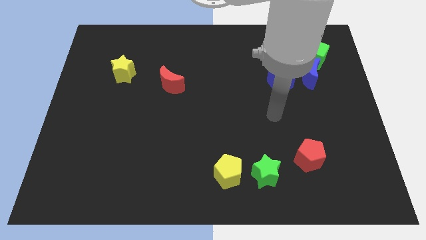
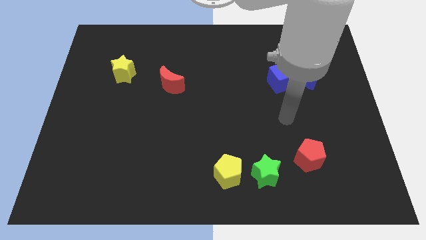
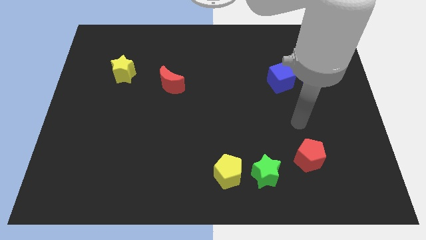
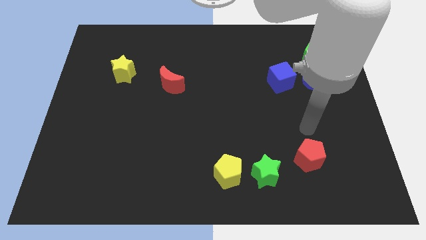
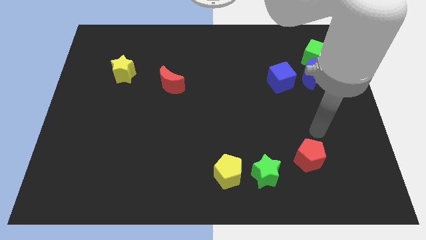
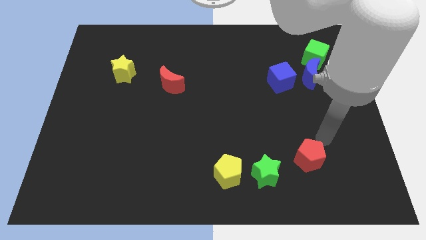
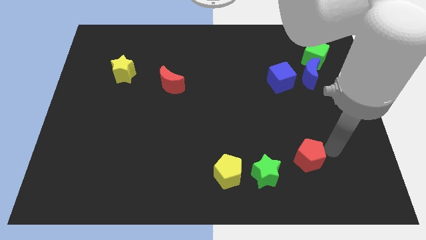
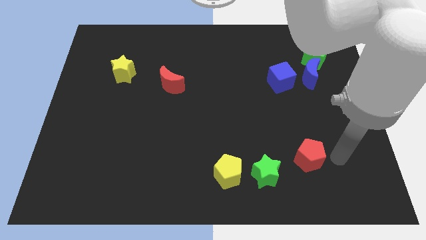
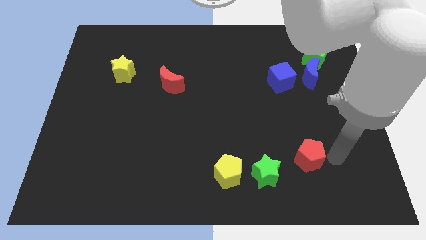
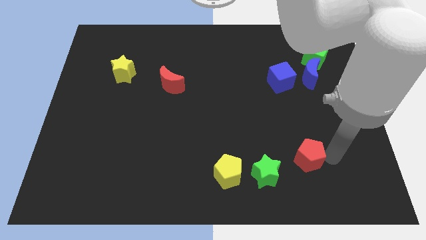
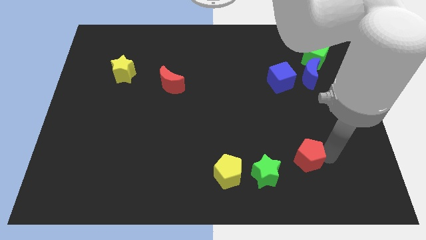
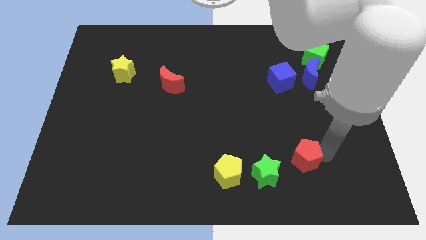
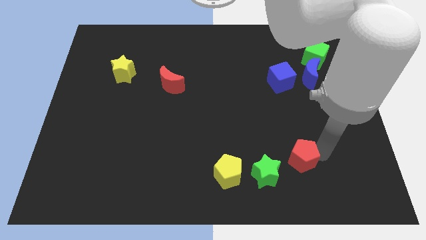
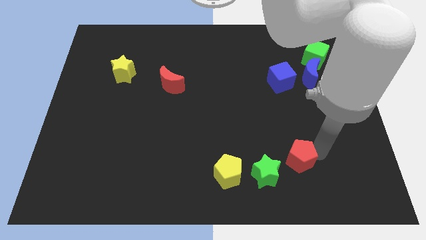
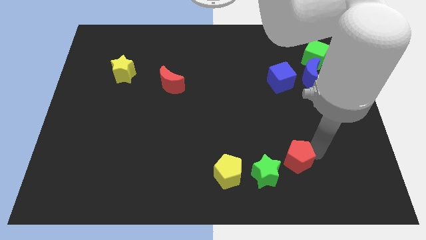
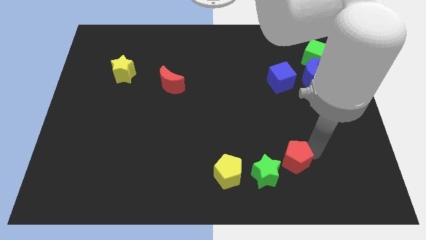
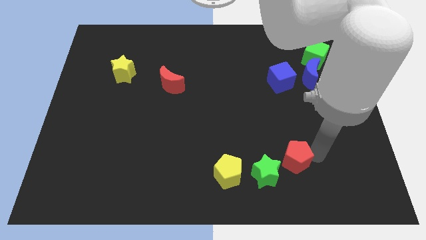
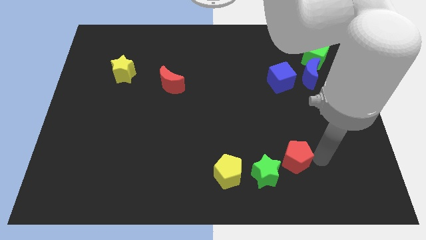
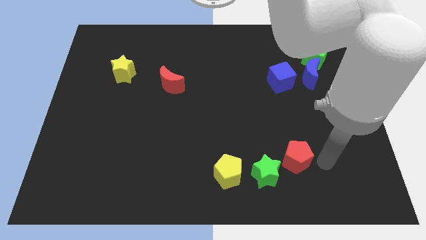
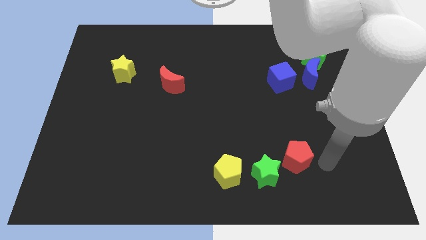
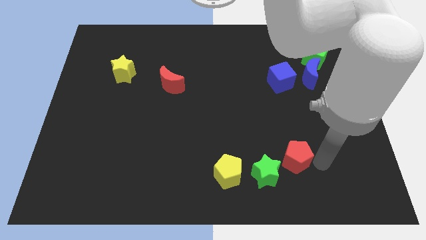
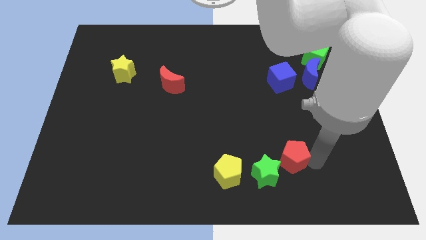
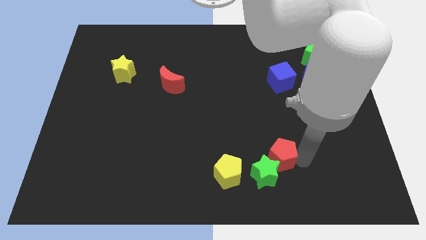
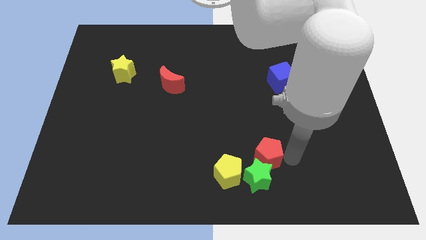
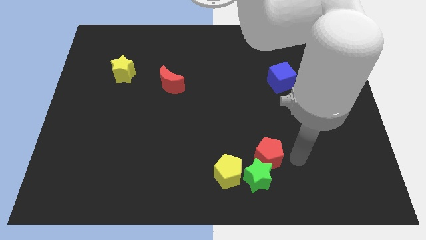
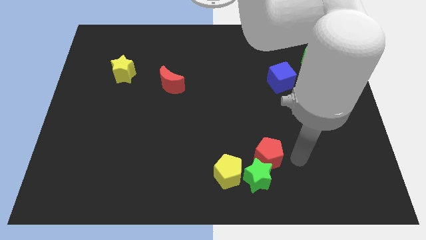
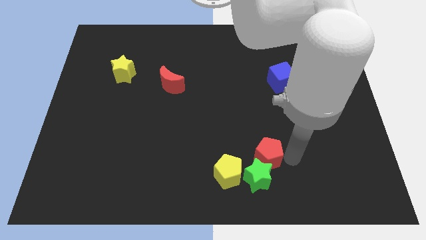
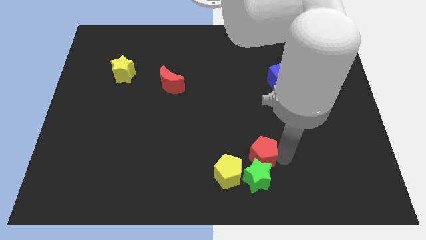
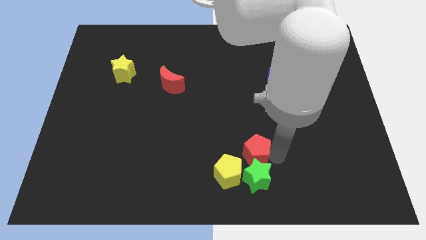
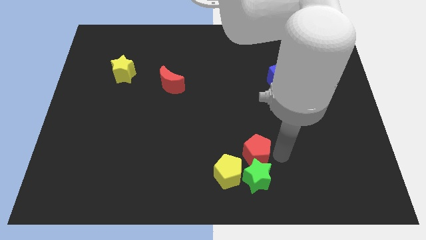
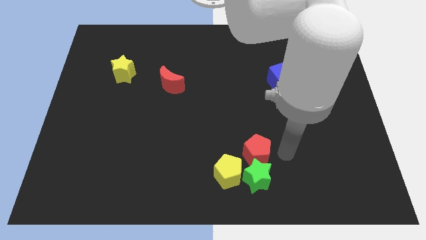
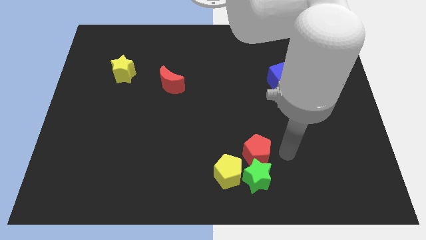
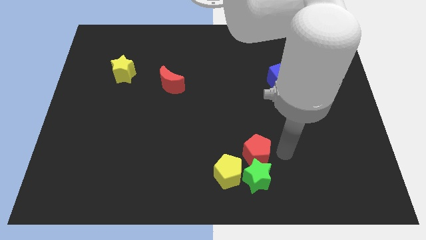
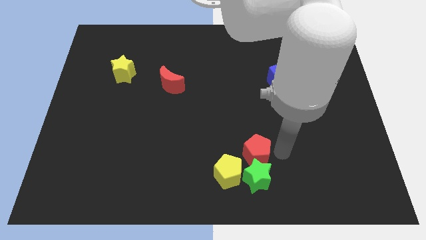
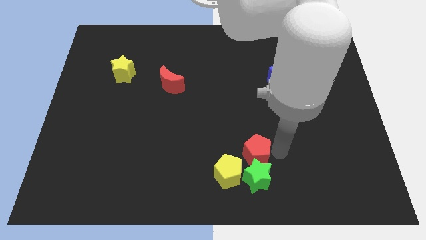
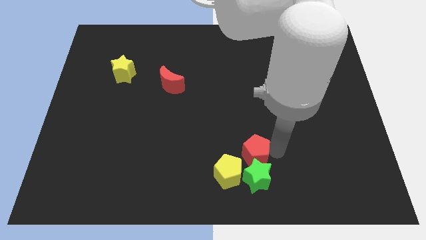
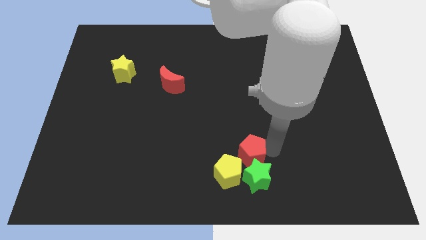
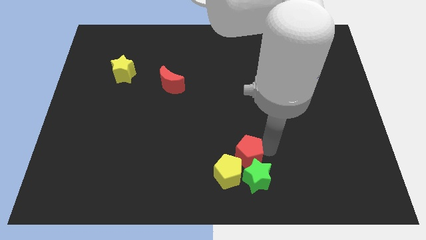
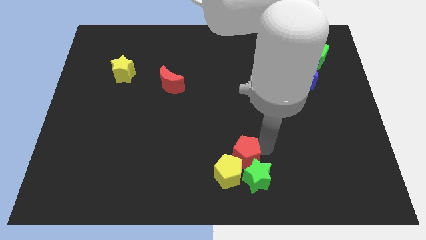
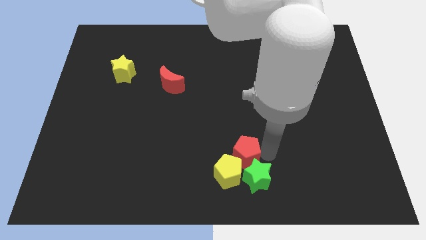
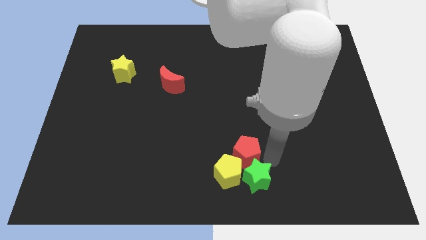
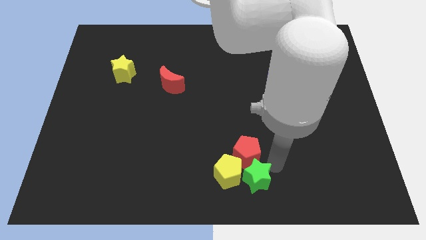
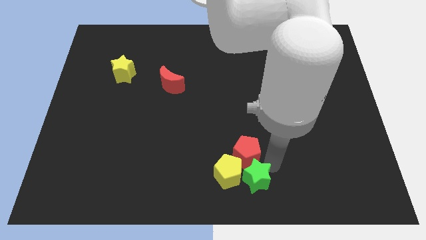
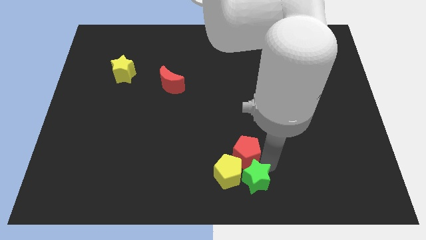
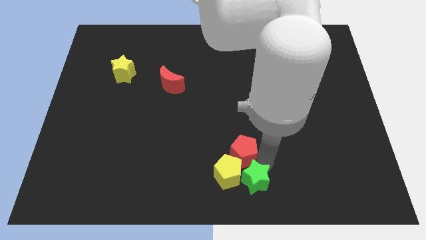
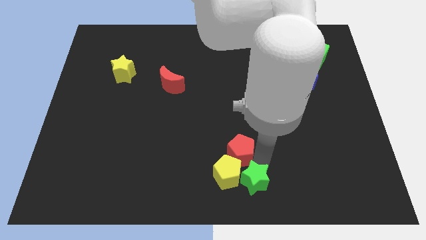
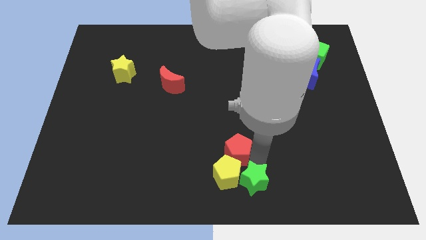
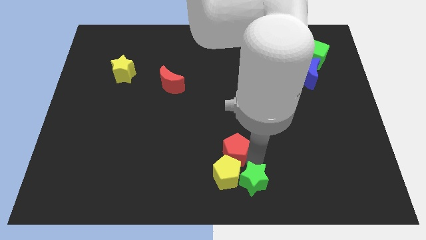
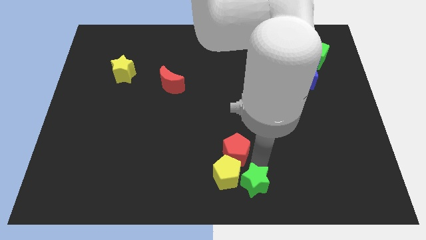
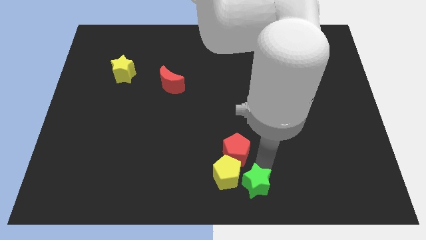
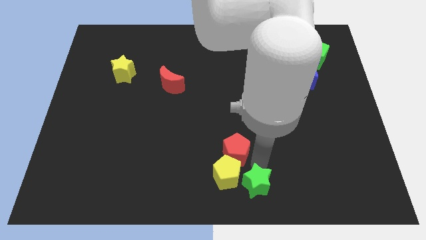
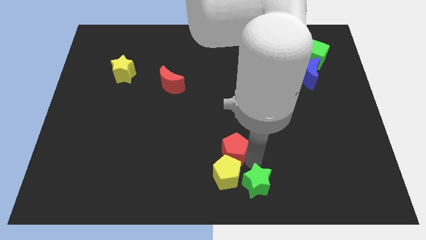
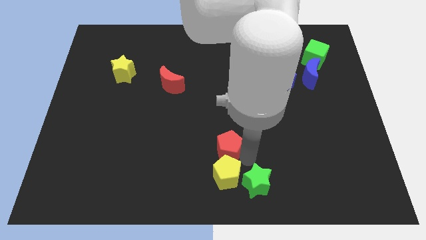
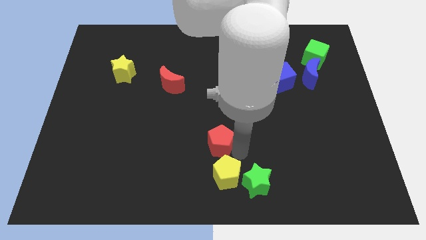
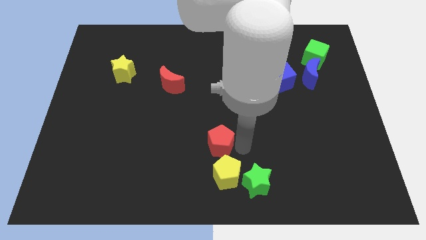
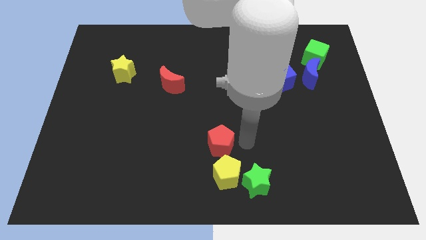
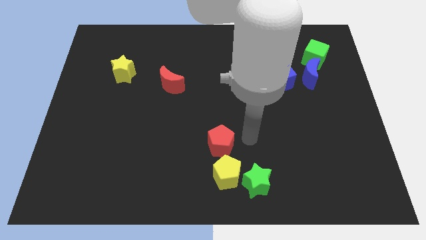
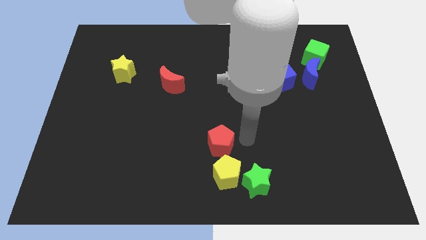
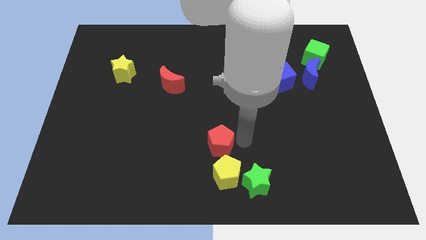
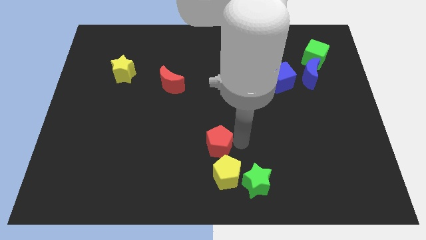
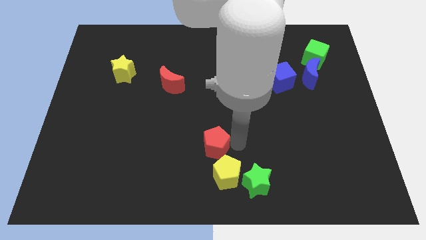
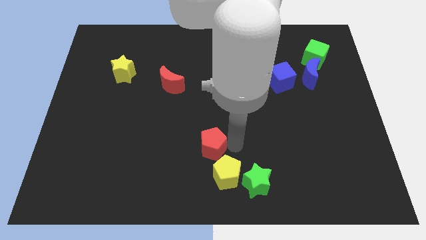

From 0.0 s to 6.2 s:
move the red pentagon to the left

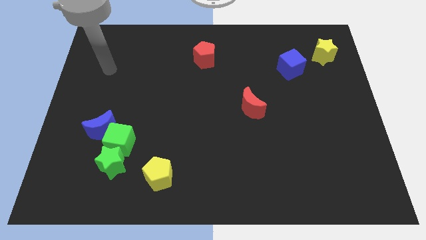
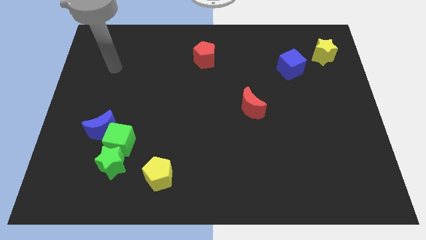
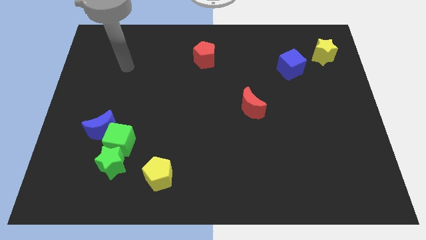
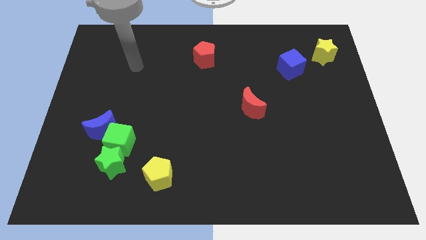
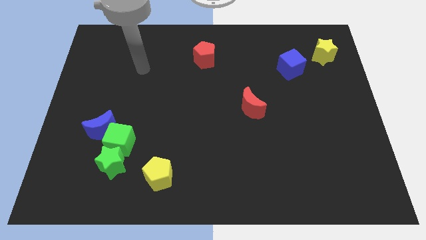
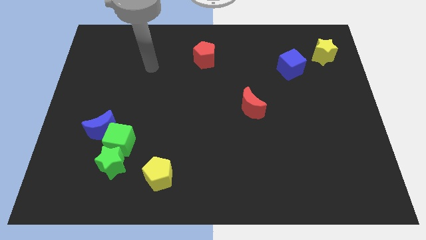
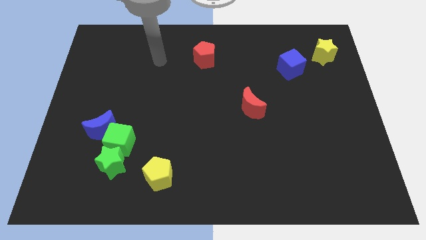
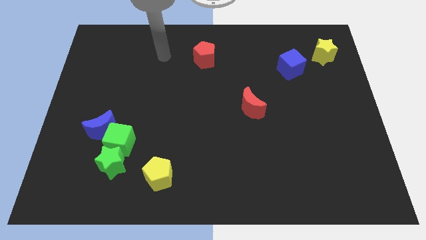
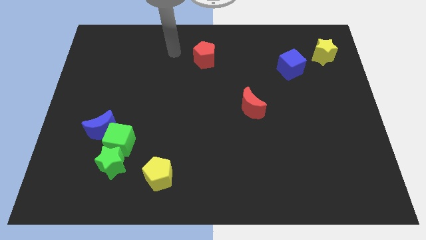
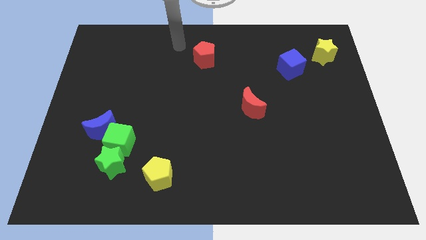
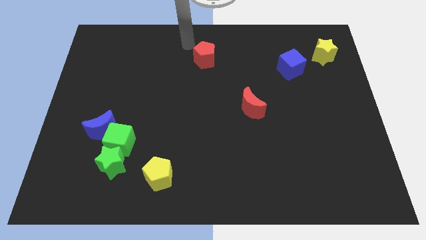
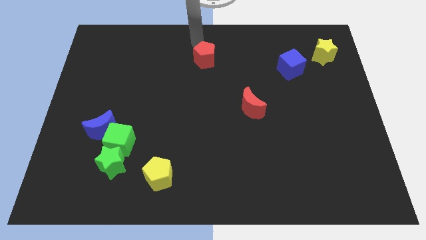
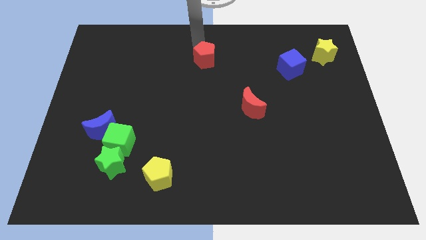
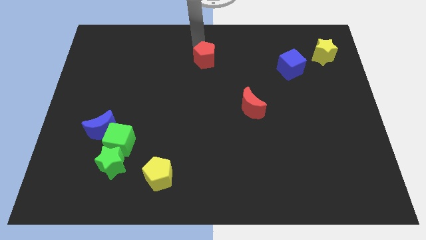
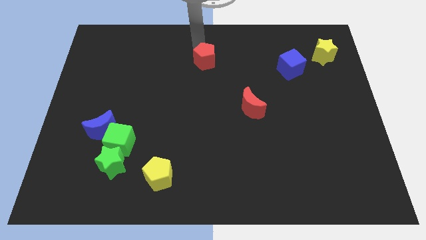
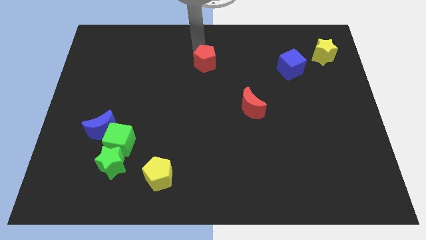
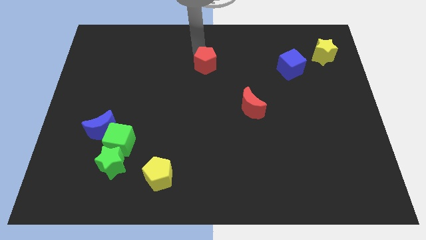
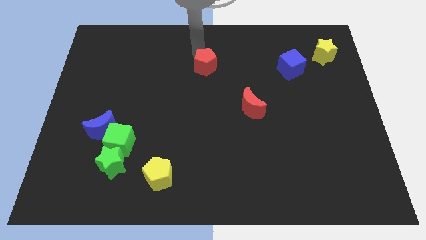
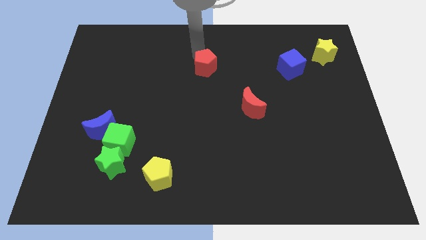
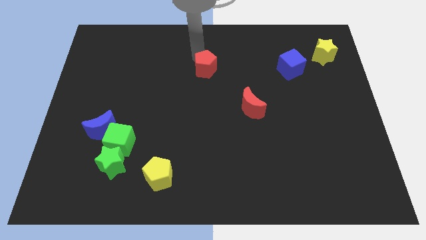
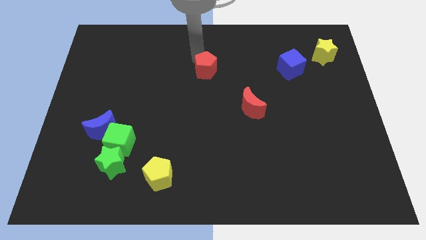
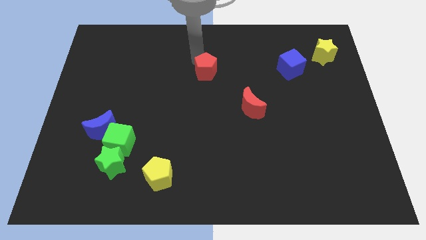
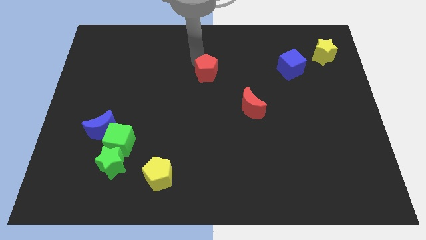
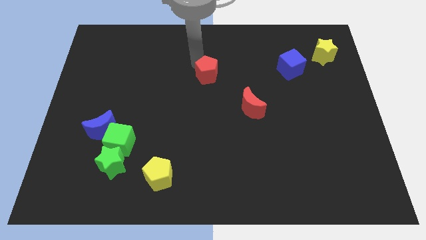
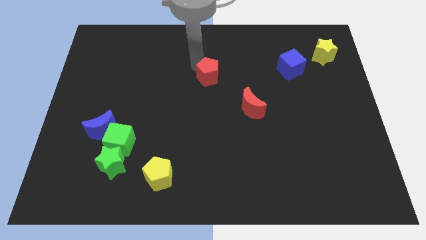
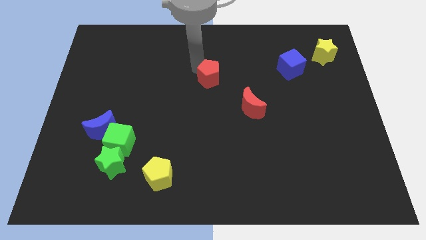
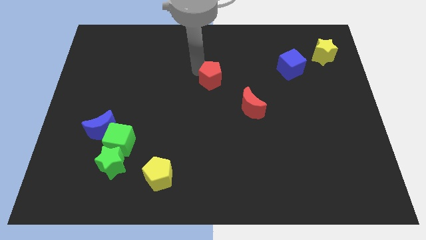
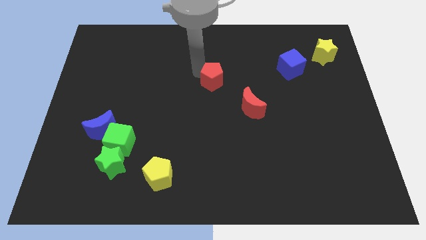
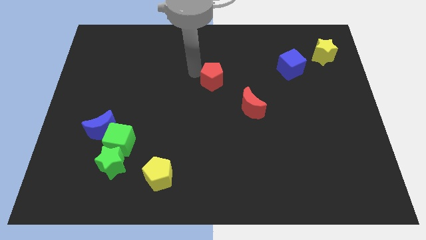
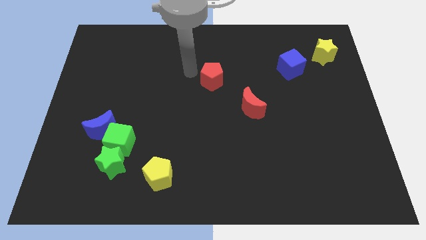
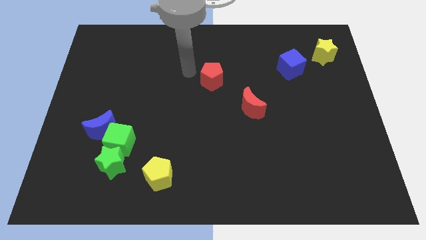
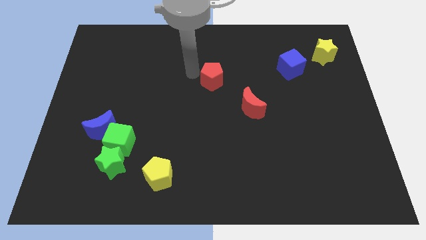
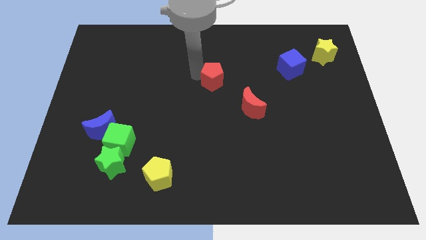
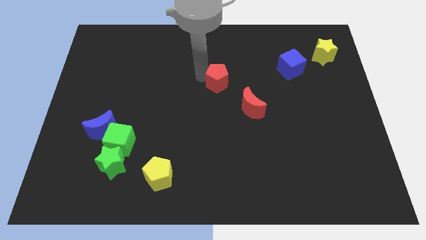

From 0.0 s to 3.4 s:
push the red pentagon downwards and to the right a little
